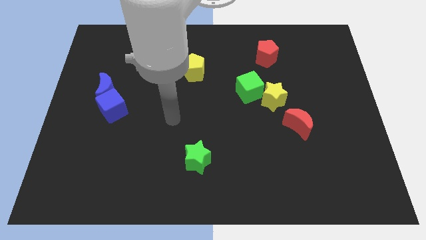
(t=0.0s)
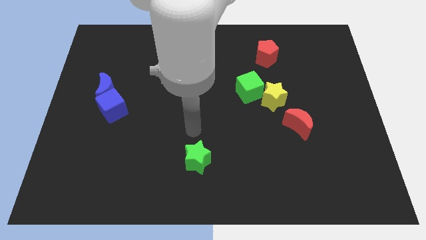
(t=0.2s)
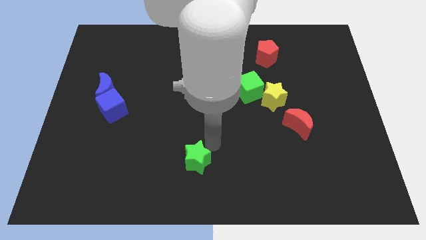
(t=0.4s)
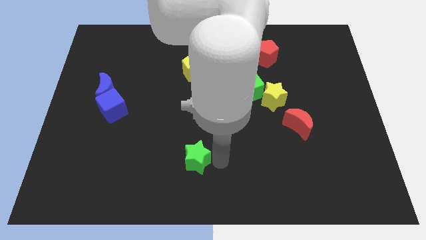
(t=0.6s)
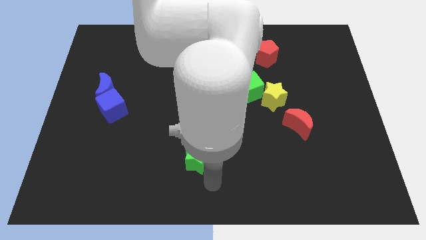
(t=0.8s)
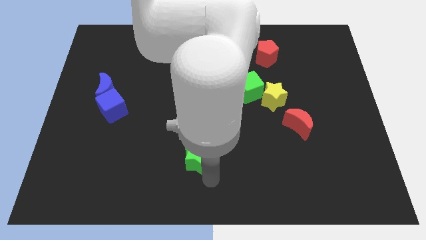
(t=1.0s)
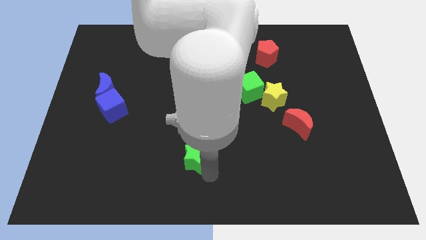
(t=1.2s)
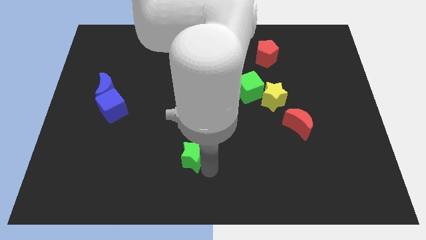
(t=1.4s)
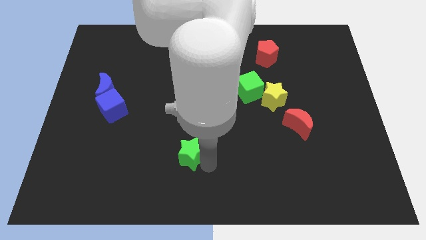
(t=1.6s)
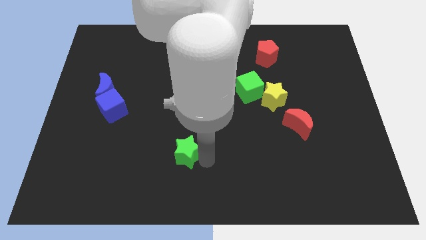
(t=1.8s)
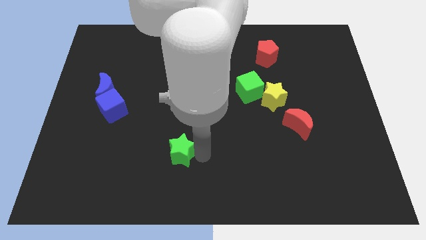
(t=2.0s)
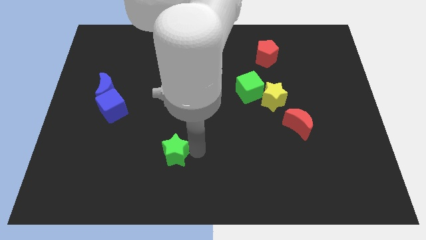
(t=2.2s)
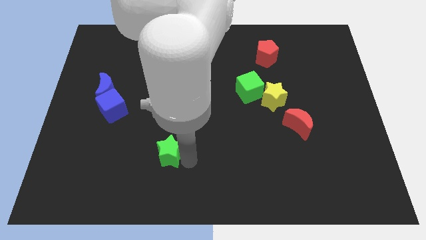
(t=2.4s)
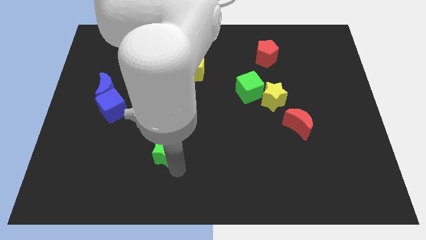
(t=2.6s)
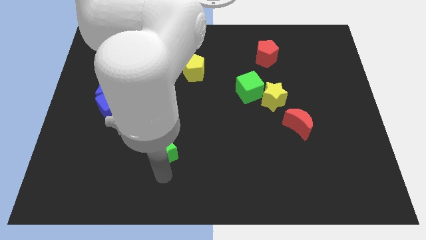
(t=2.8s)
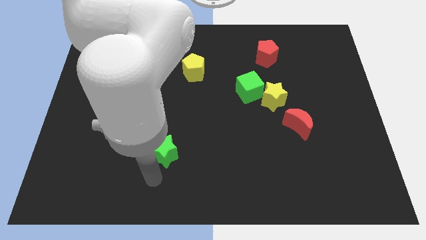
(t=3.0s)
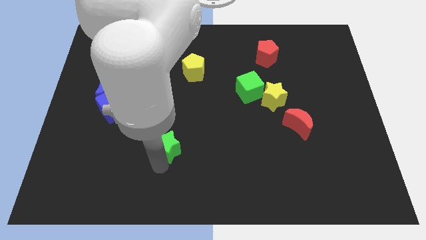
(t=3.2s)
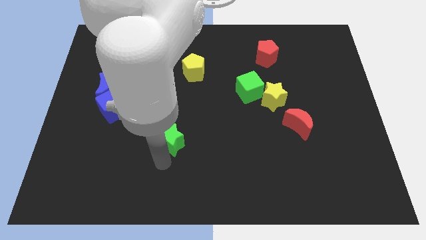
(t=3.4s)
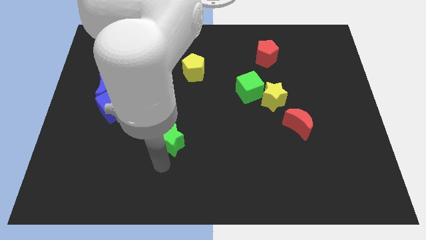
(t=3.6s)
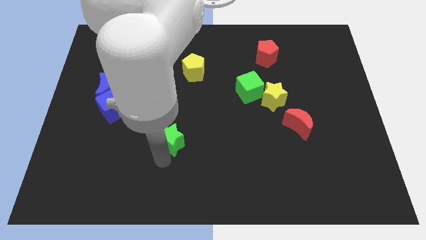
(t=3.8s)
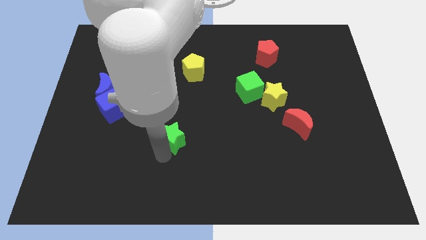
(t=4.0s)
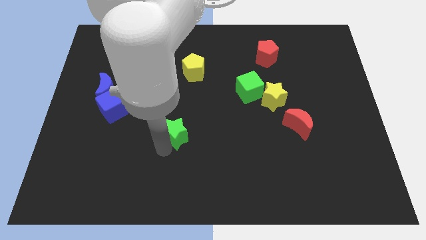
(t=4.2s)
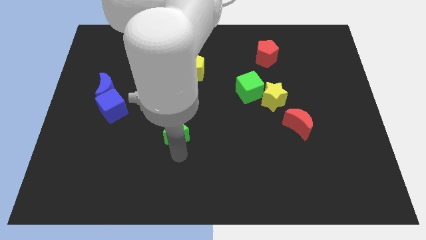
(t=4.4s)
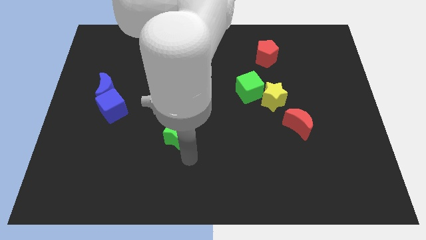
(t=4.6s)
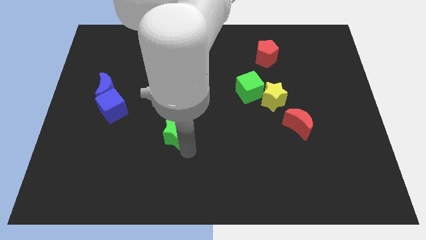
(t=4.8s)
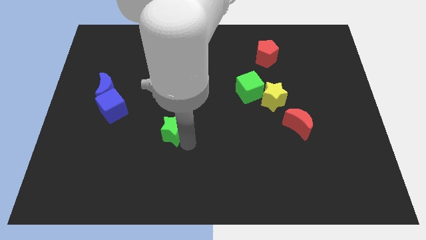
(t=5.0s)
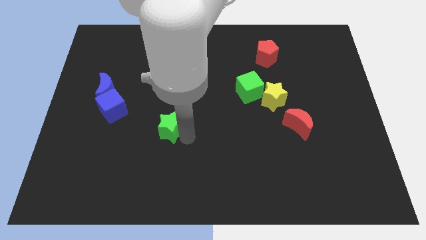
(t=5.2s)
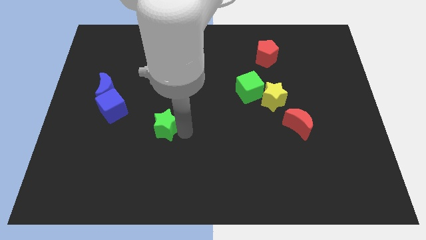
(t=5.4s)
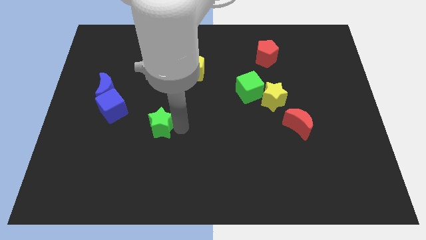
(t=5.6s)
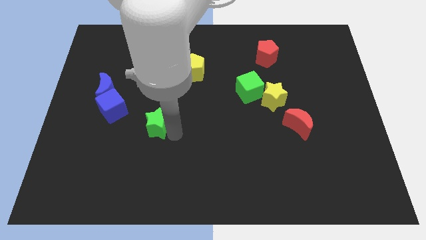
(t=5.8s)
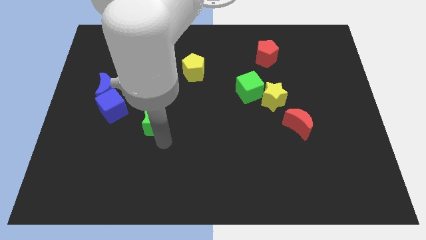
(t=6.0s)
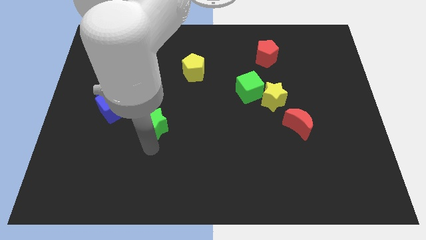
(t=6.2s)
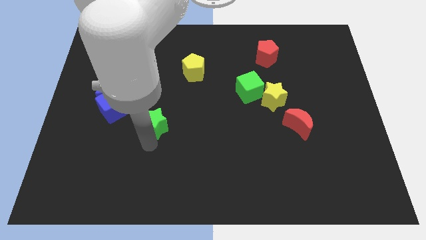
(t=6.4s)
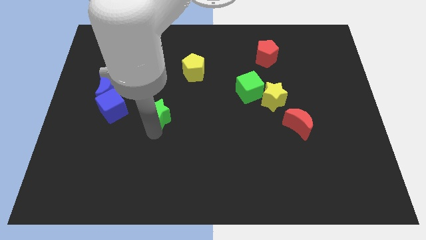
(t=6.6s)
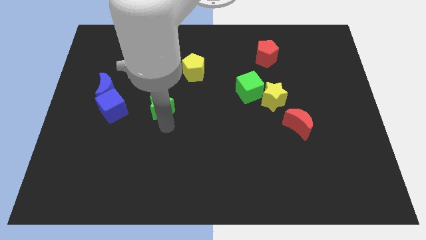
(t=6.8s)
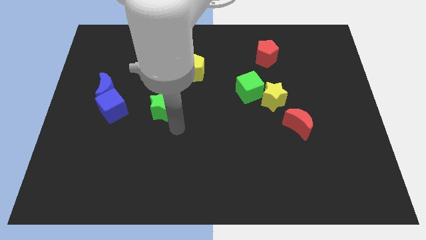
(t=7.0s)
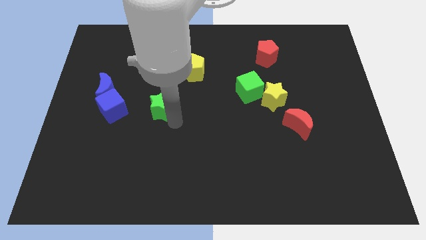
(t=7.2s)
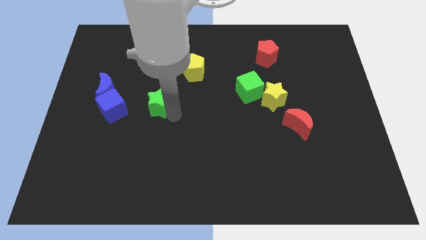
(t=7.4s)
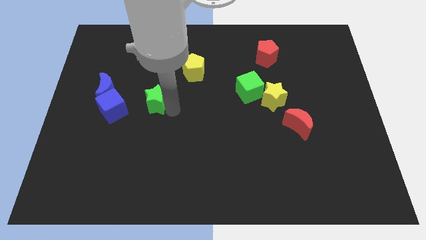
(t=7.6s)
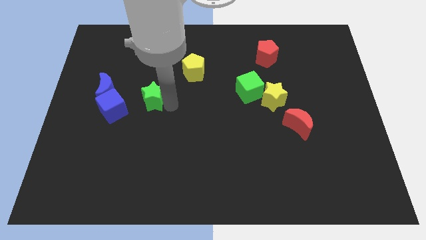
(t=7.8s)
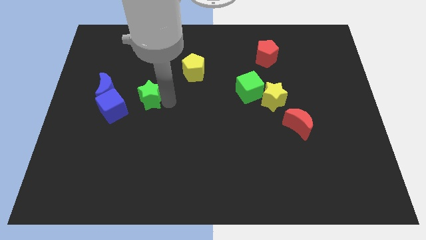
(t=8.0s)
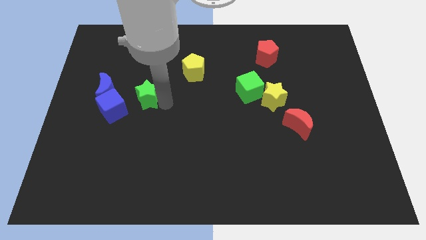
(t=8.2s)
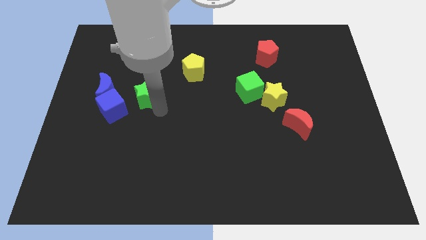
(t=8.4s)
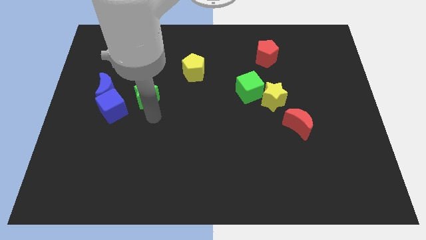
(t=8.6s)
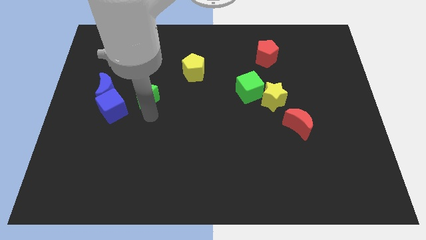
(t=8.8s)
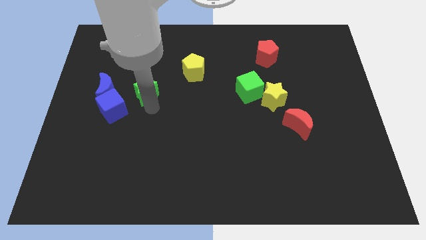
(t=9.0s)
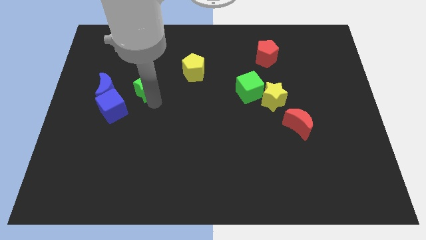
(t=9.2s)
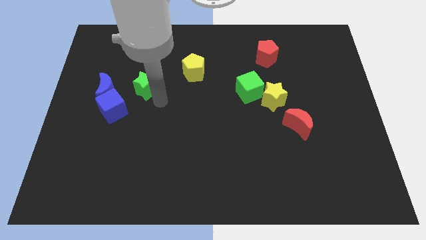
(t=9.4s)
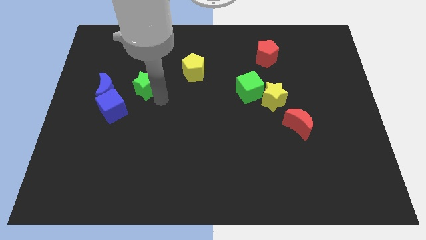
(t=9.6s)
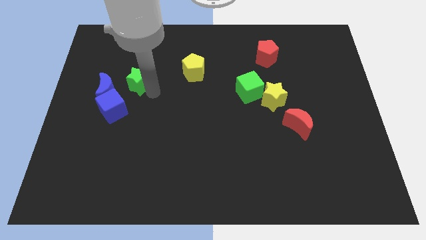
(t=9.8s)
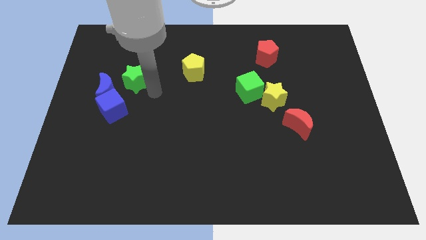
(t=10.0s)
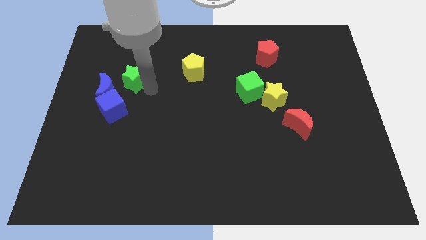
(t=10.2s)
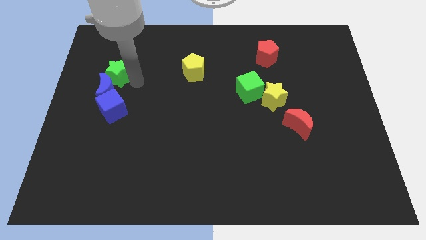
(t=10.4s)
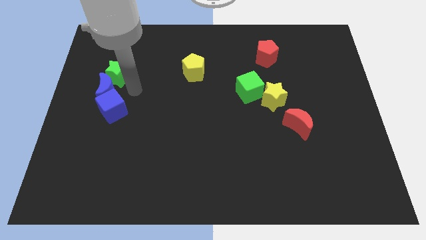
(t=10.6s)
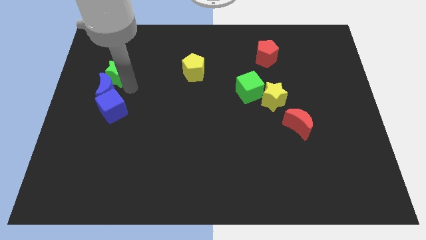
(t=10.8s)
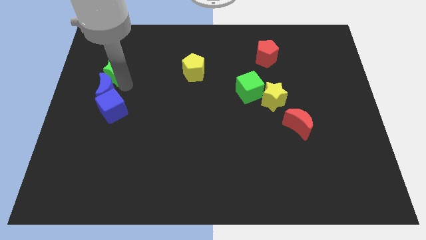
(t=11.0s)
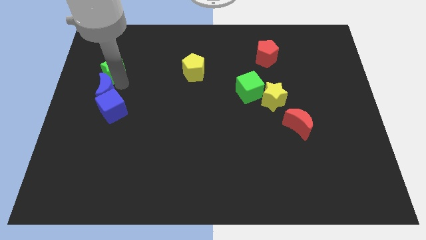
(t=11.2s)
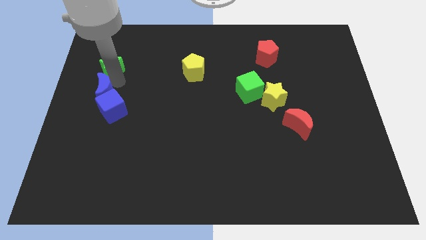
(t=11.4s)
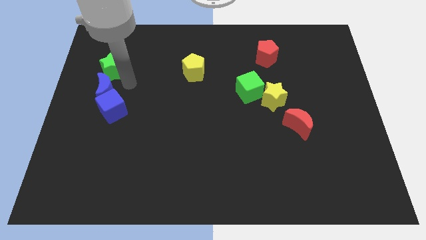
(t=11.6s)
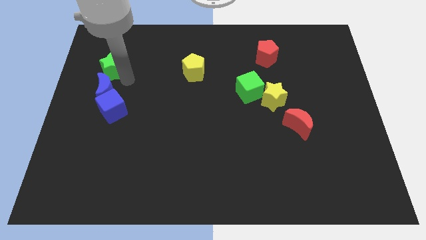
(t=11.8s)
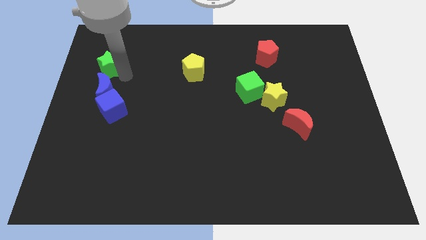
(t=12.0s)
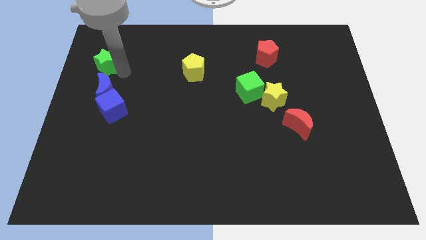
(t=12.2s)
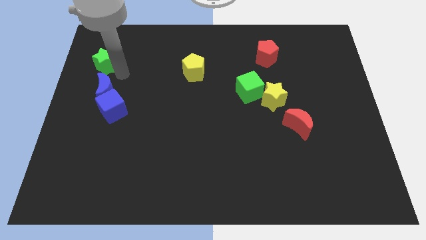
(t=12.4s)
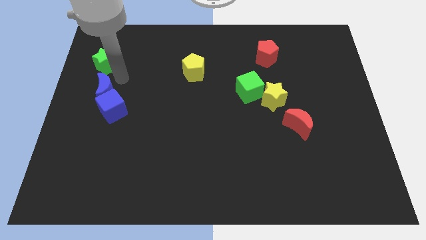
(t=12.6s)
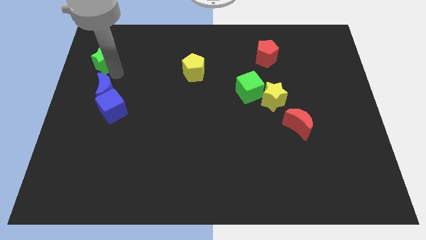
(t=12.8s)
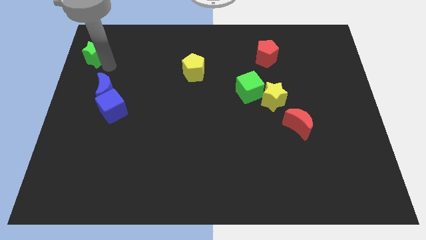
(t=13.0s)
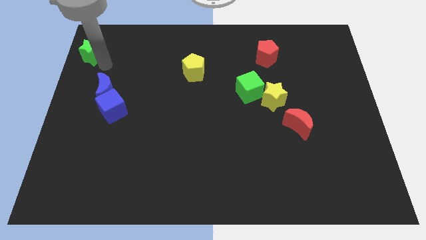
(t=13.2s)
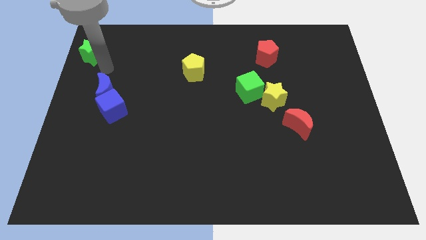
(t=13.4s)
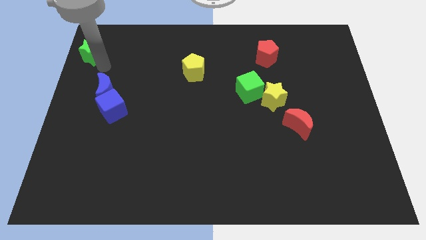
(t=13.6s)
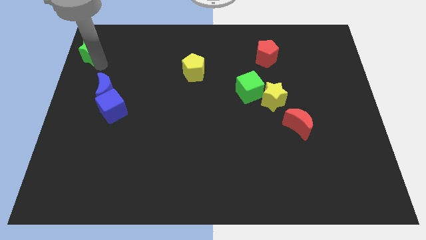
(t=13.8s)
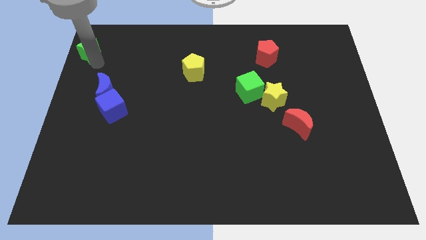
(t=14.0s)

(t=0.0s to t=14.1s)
push the green star to the upper left corner
